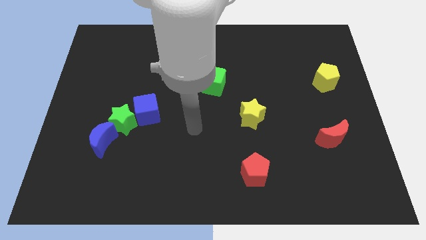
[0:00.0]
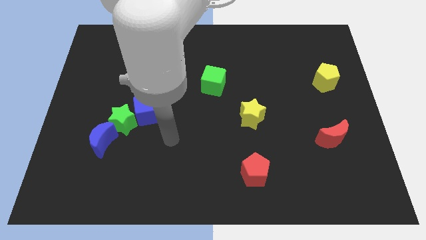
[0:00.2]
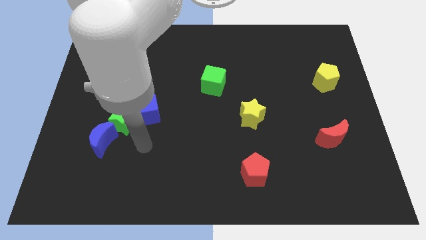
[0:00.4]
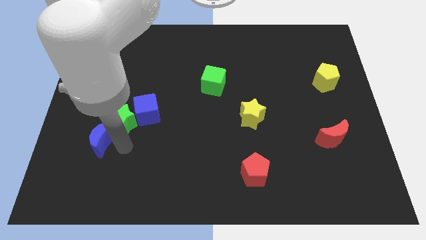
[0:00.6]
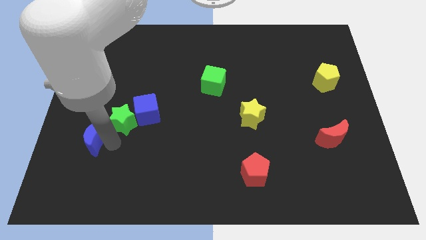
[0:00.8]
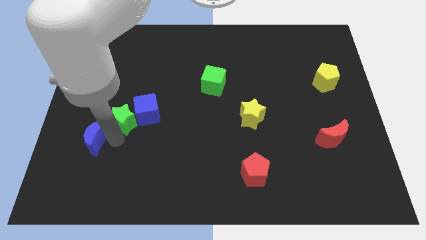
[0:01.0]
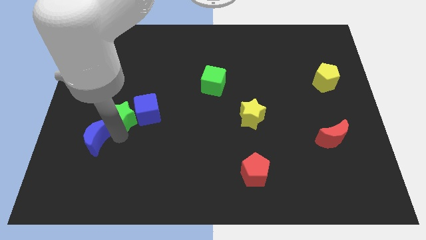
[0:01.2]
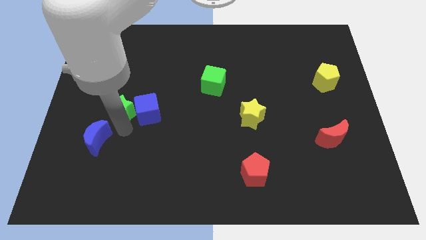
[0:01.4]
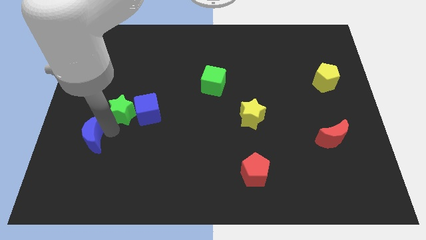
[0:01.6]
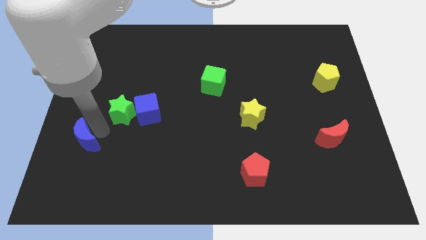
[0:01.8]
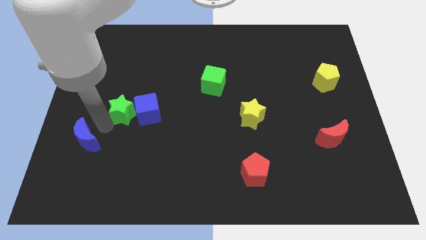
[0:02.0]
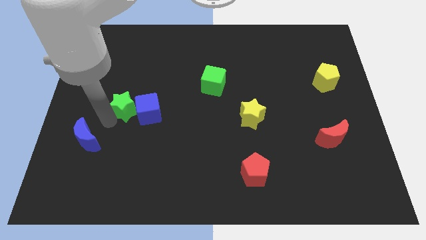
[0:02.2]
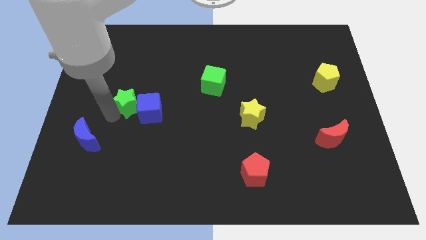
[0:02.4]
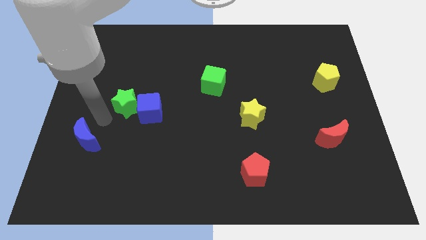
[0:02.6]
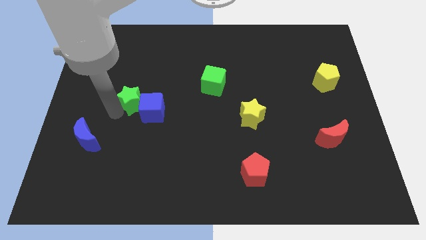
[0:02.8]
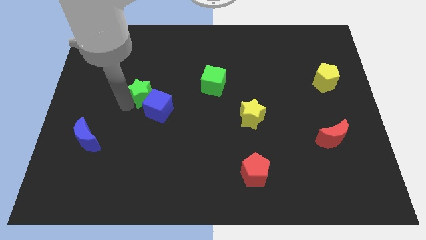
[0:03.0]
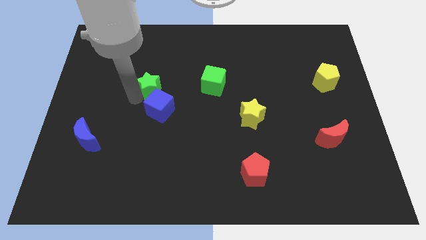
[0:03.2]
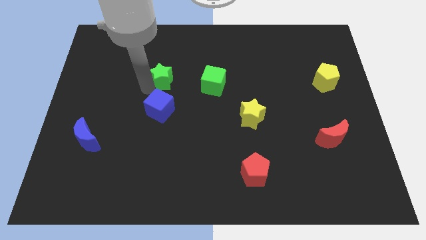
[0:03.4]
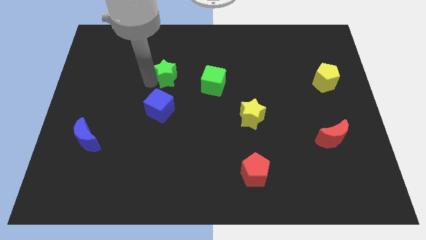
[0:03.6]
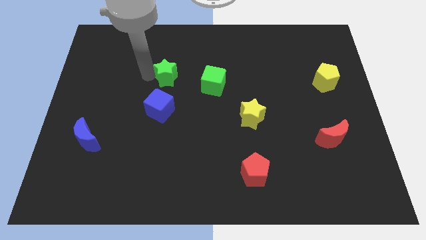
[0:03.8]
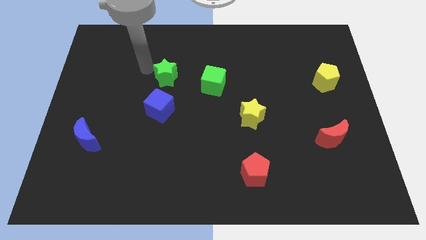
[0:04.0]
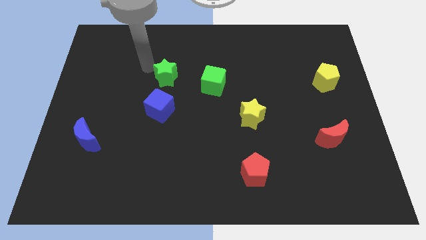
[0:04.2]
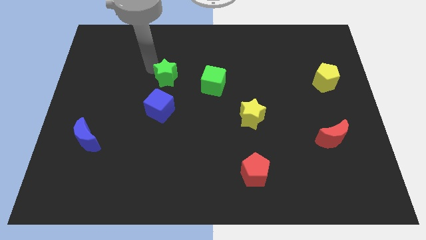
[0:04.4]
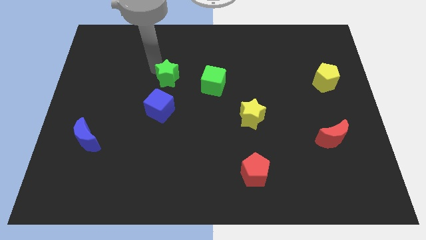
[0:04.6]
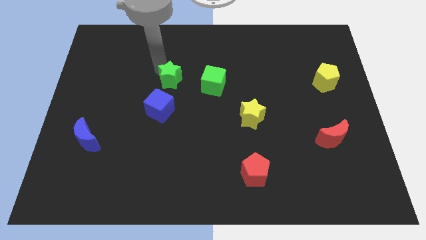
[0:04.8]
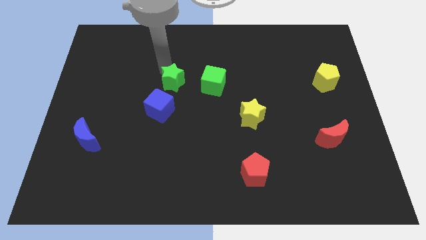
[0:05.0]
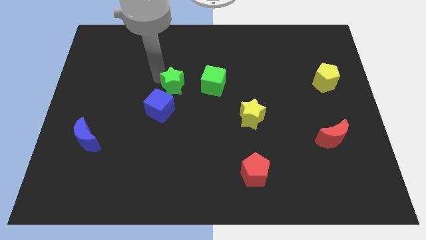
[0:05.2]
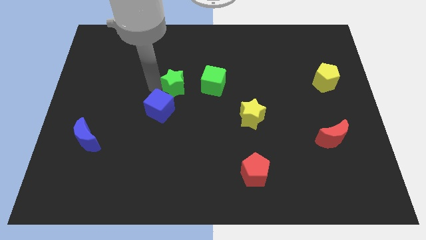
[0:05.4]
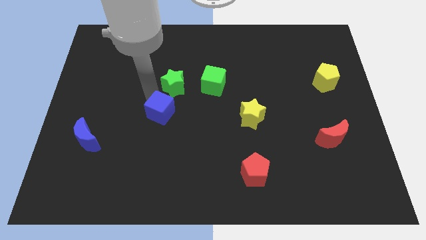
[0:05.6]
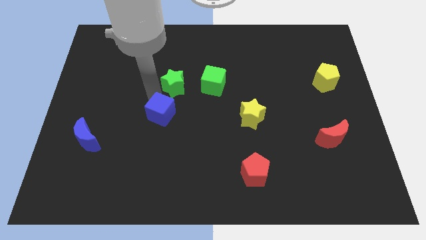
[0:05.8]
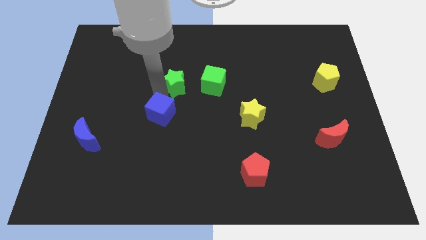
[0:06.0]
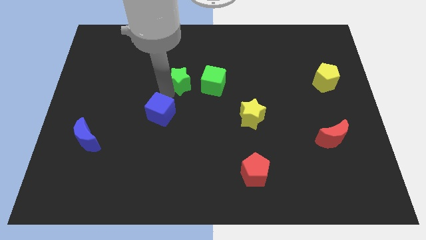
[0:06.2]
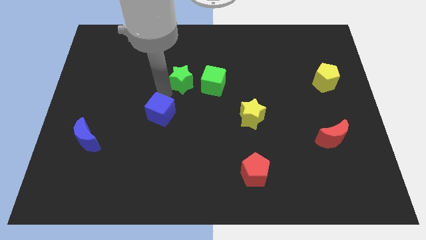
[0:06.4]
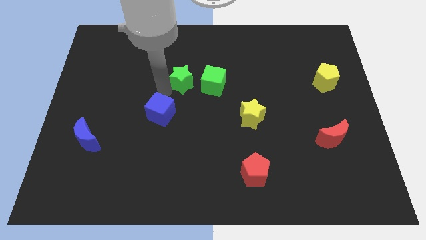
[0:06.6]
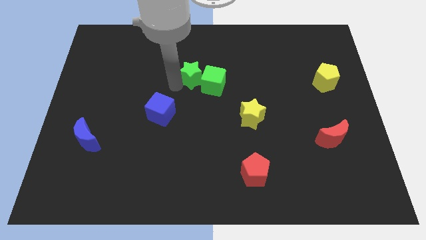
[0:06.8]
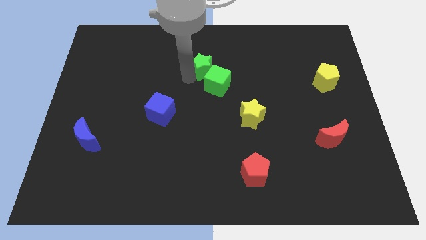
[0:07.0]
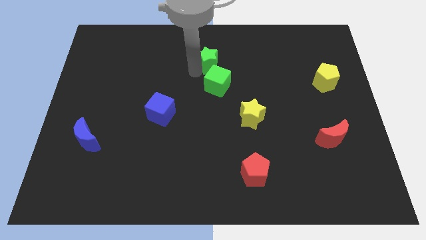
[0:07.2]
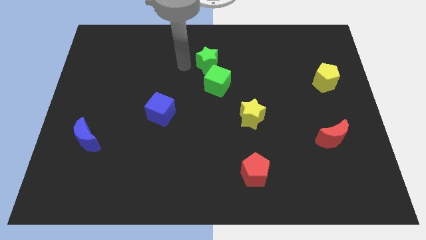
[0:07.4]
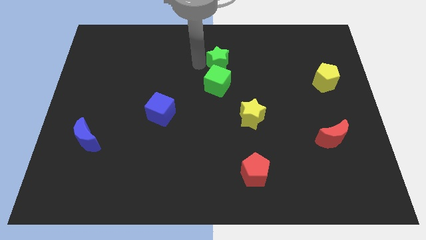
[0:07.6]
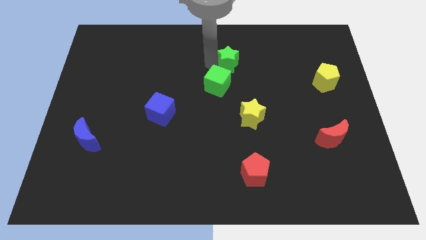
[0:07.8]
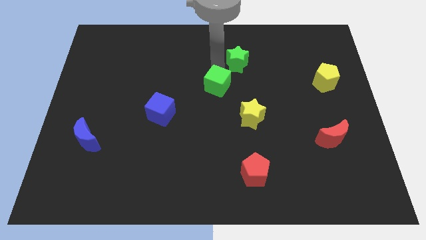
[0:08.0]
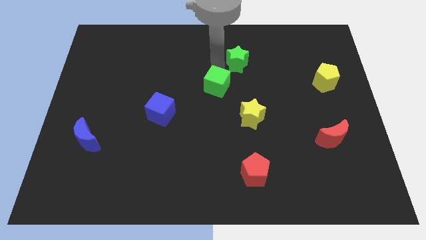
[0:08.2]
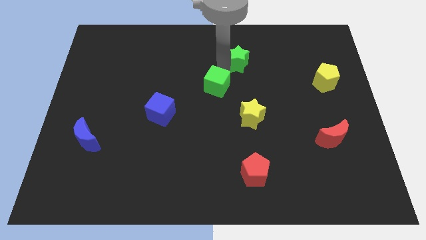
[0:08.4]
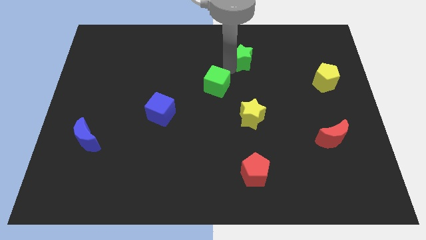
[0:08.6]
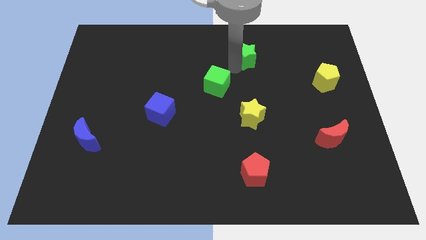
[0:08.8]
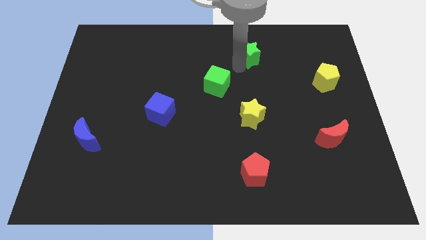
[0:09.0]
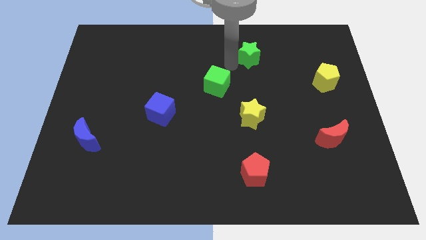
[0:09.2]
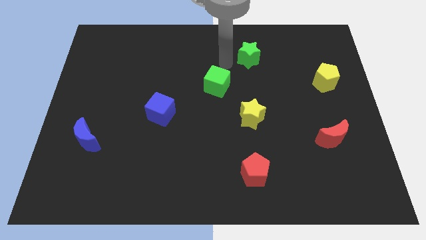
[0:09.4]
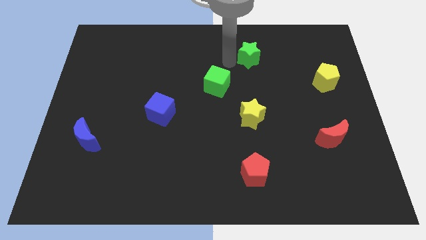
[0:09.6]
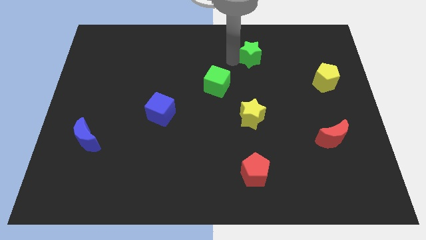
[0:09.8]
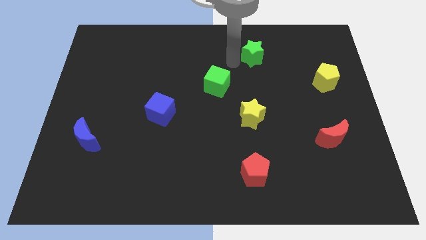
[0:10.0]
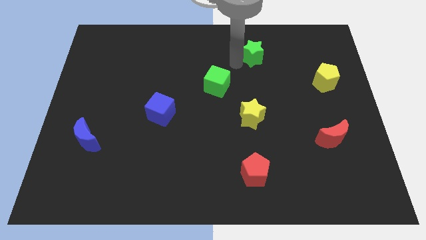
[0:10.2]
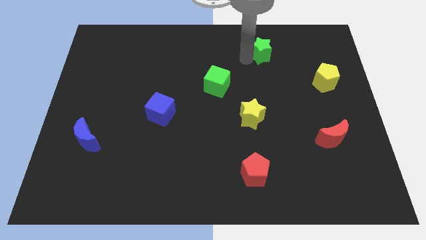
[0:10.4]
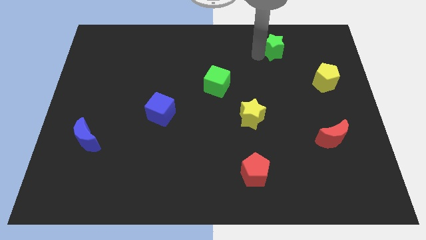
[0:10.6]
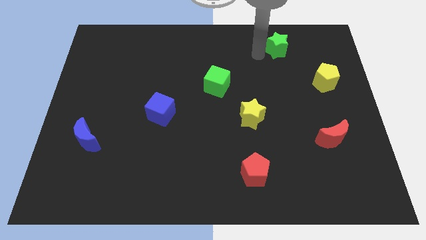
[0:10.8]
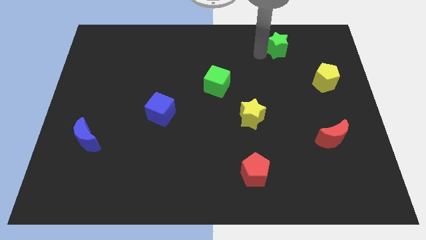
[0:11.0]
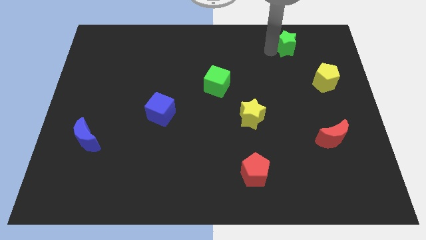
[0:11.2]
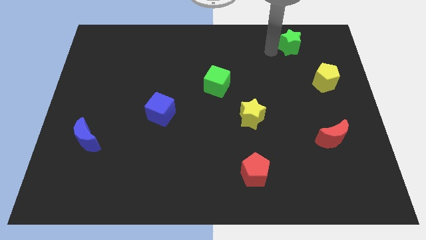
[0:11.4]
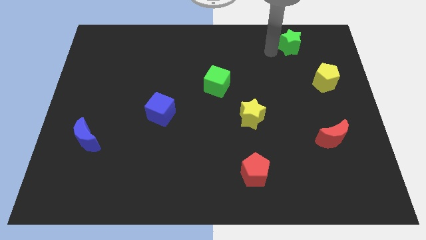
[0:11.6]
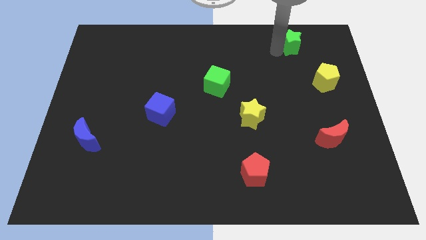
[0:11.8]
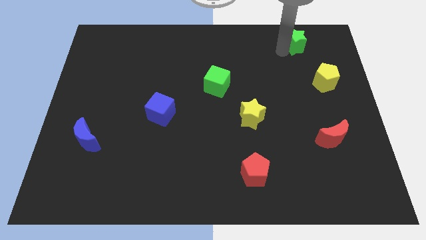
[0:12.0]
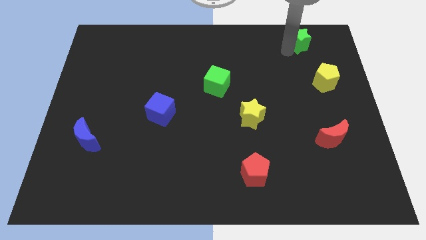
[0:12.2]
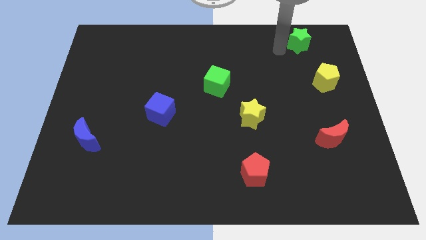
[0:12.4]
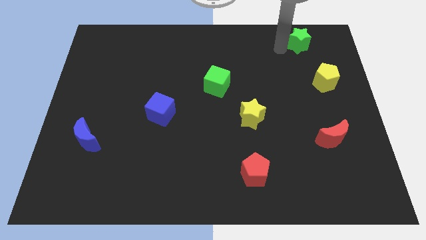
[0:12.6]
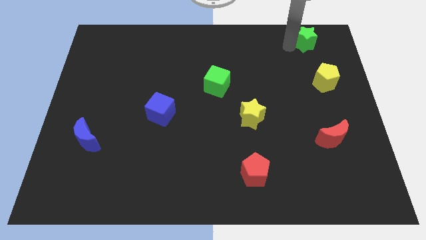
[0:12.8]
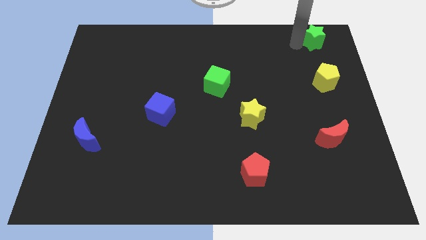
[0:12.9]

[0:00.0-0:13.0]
push the green star to the top right of the board
